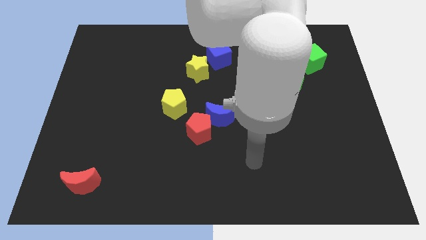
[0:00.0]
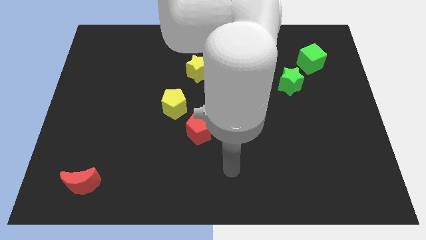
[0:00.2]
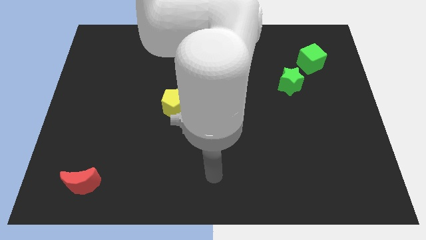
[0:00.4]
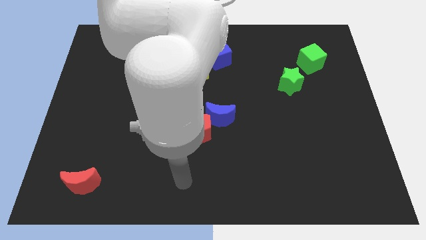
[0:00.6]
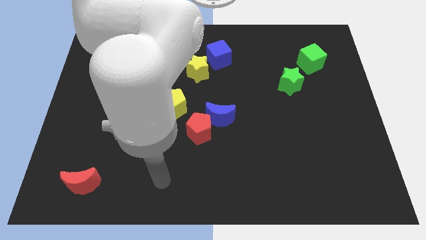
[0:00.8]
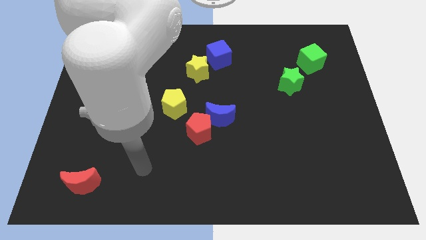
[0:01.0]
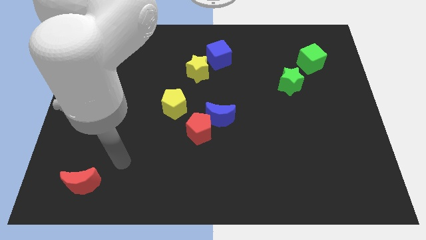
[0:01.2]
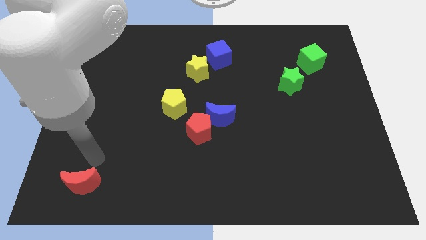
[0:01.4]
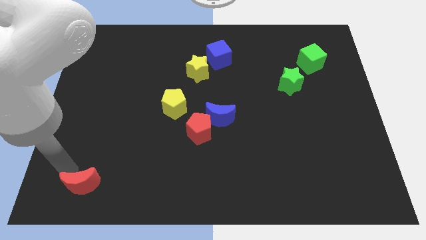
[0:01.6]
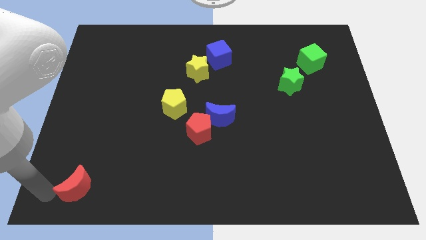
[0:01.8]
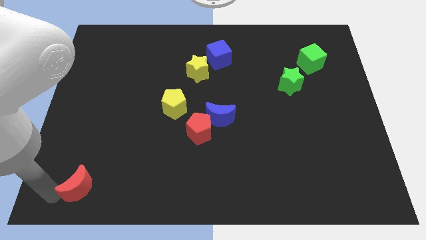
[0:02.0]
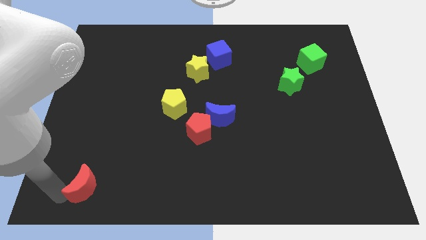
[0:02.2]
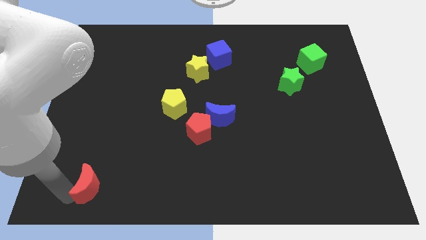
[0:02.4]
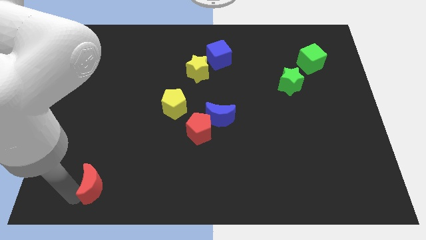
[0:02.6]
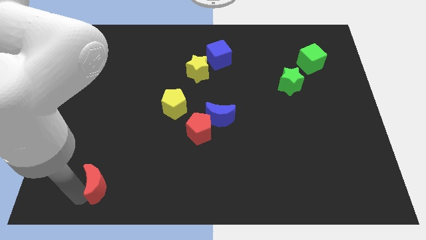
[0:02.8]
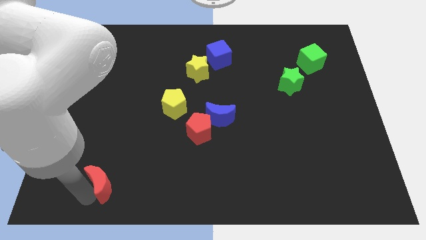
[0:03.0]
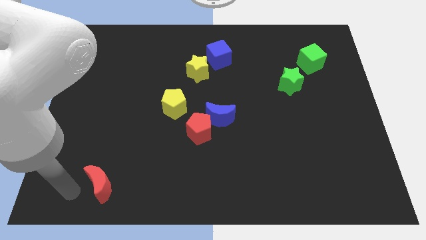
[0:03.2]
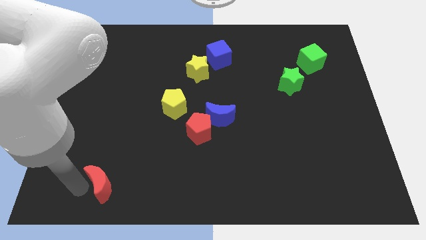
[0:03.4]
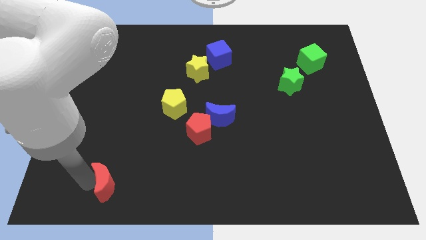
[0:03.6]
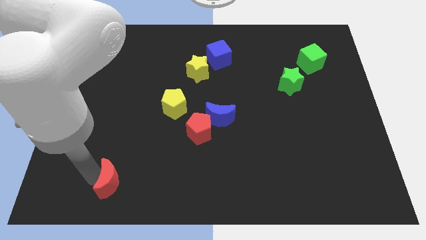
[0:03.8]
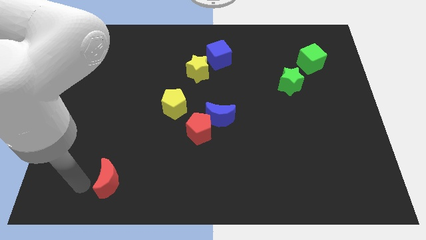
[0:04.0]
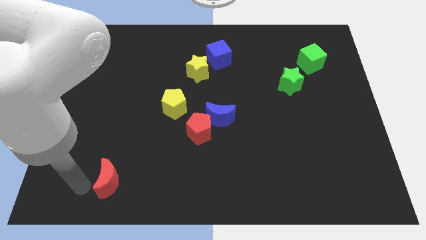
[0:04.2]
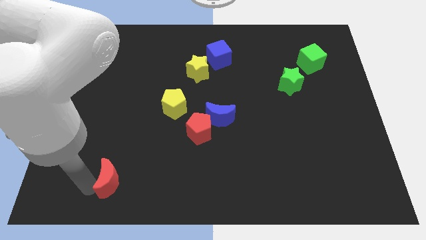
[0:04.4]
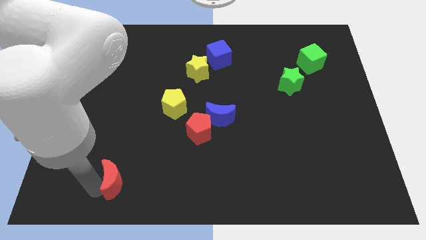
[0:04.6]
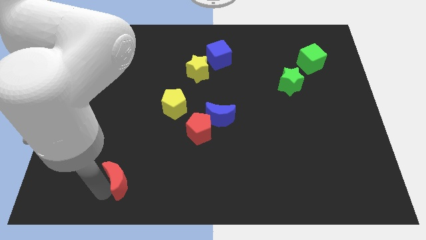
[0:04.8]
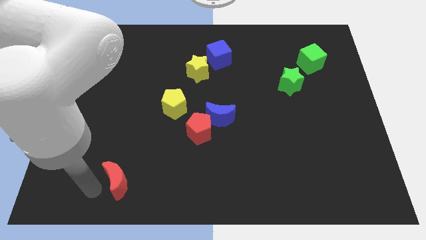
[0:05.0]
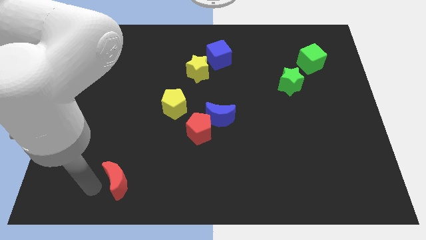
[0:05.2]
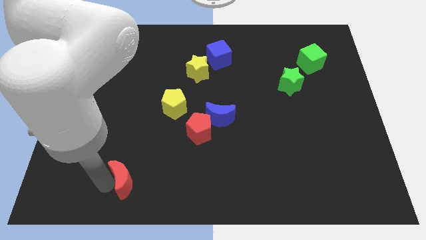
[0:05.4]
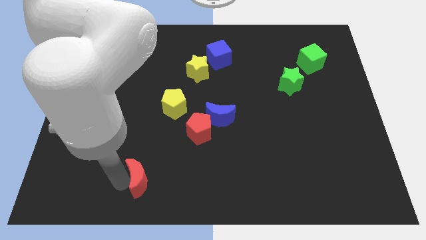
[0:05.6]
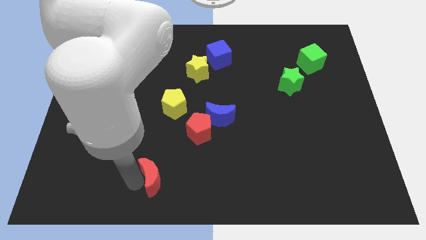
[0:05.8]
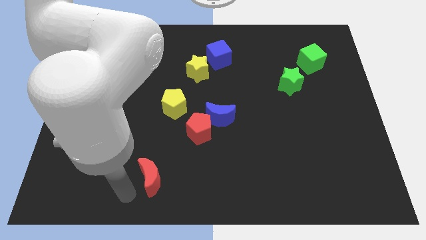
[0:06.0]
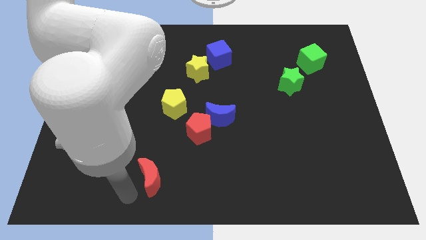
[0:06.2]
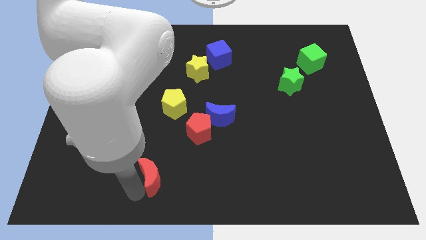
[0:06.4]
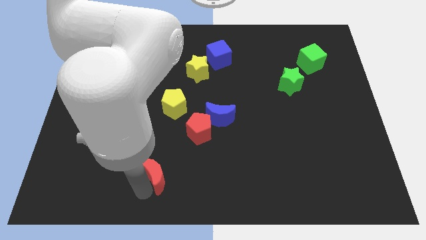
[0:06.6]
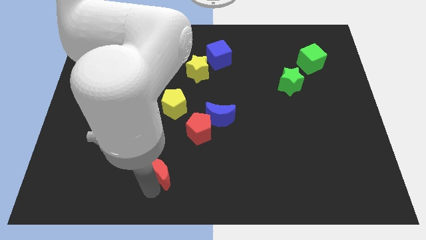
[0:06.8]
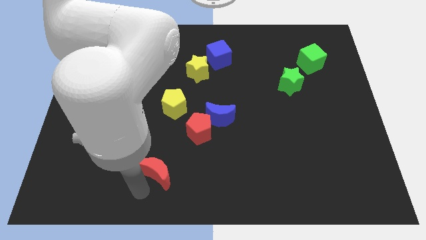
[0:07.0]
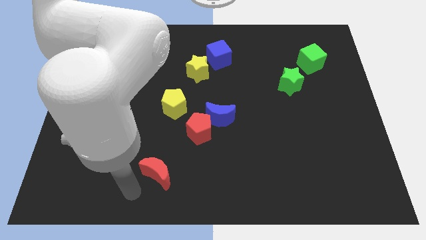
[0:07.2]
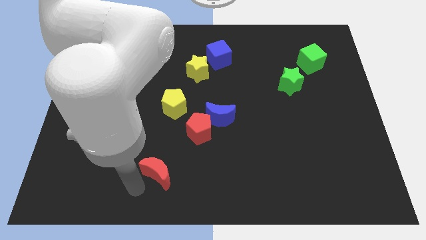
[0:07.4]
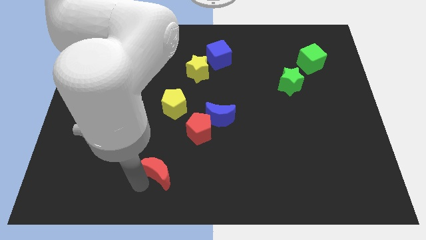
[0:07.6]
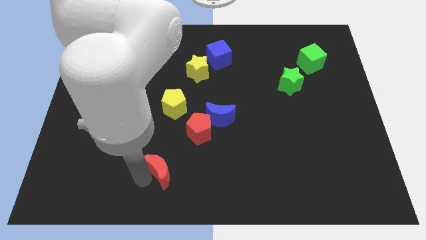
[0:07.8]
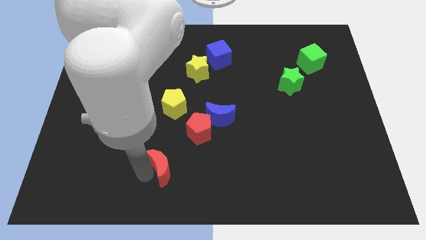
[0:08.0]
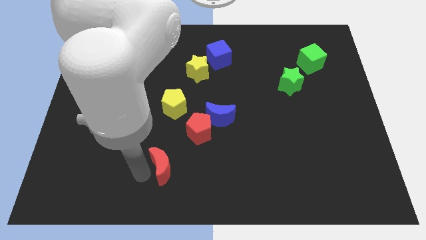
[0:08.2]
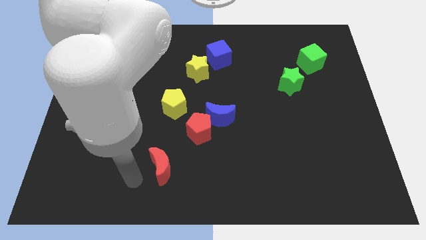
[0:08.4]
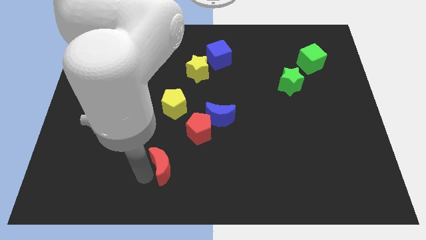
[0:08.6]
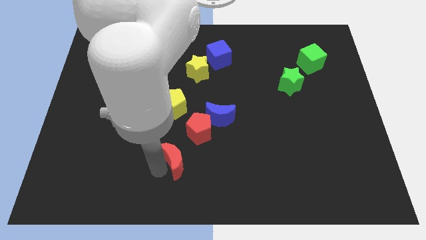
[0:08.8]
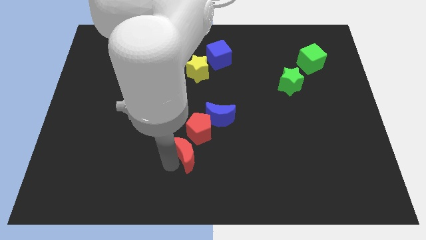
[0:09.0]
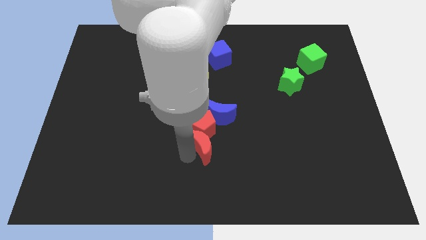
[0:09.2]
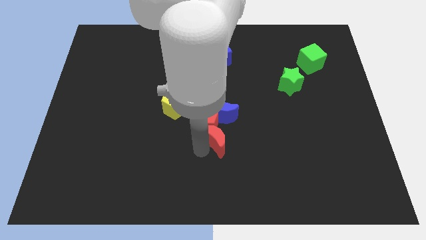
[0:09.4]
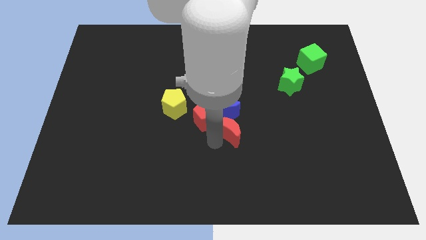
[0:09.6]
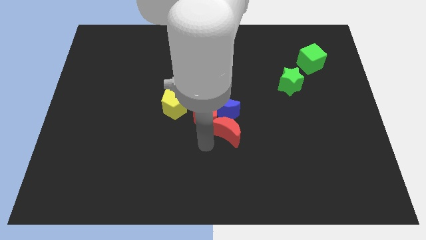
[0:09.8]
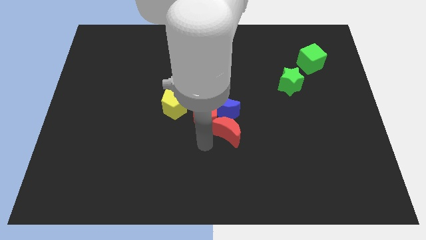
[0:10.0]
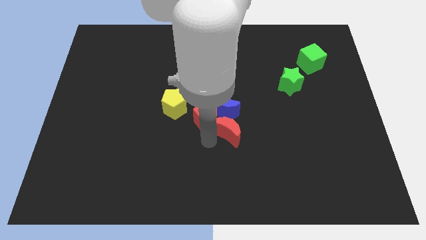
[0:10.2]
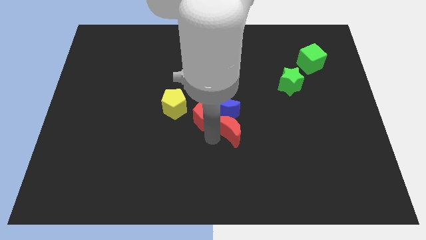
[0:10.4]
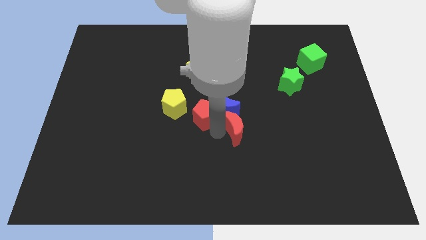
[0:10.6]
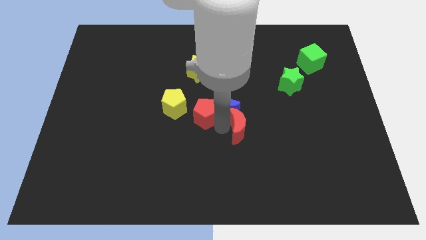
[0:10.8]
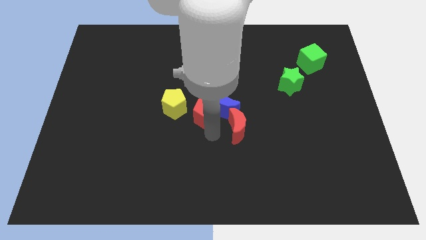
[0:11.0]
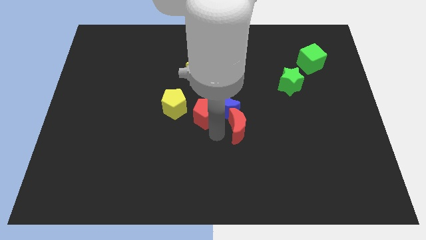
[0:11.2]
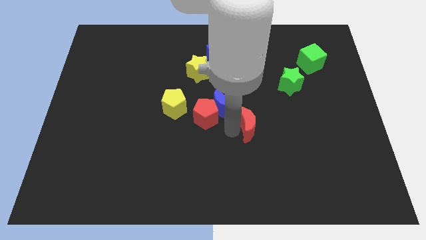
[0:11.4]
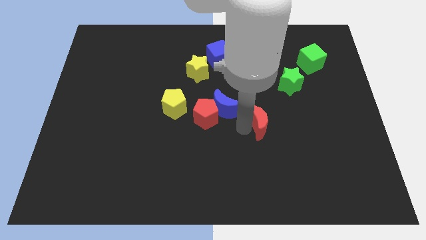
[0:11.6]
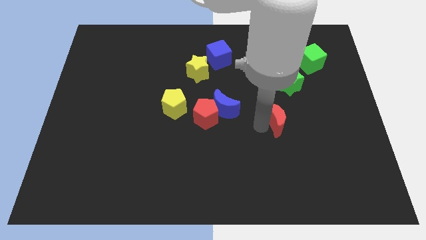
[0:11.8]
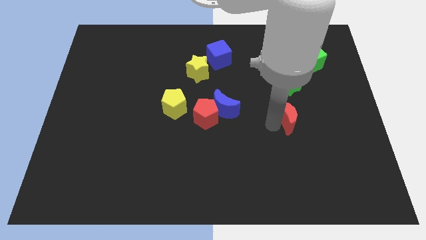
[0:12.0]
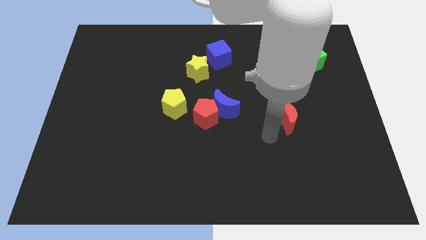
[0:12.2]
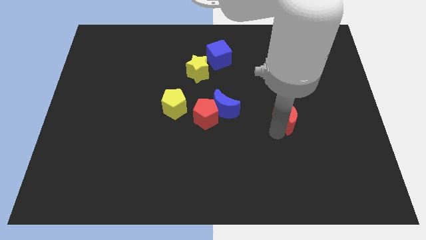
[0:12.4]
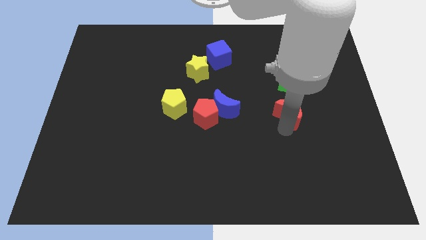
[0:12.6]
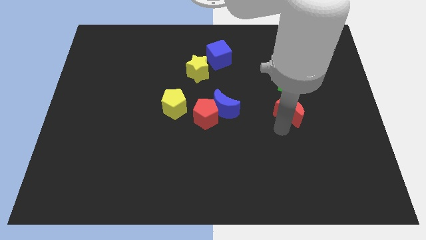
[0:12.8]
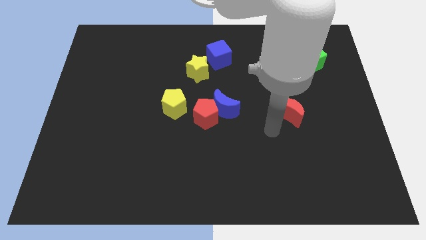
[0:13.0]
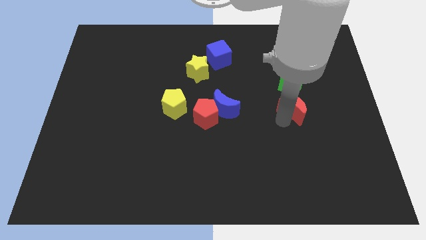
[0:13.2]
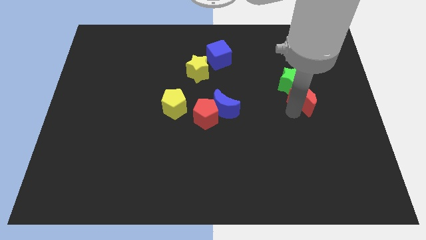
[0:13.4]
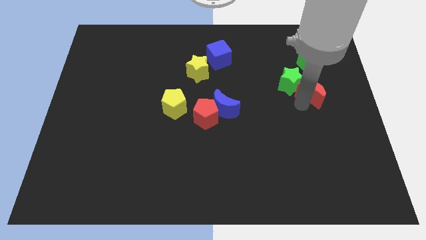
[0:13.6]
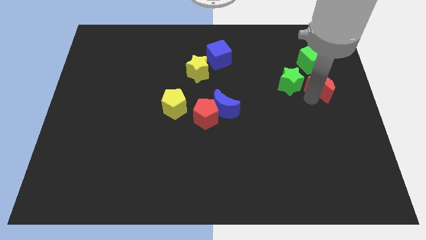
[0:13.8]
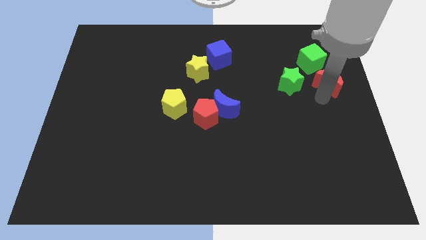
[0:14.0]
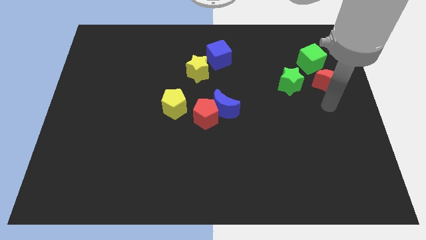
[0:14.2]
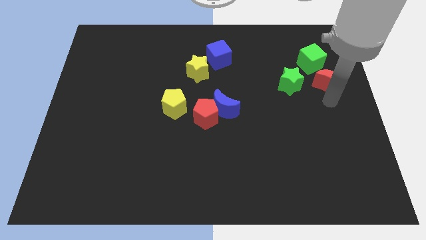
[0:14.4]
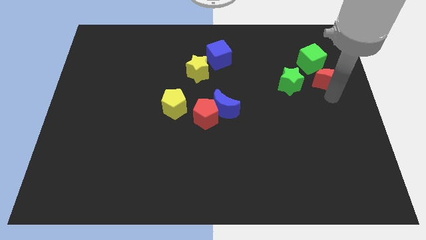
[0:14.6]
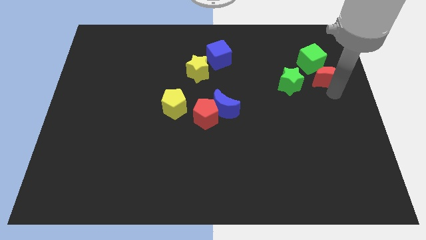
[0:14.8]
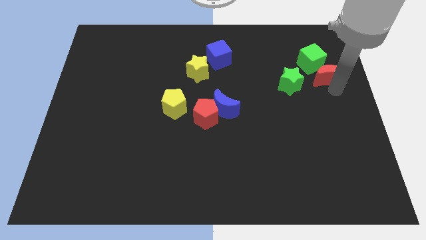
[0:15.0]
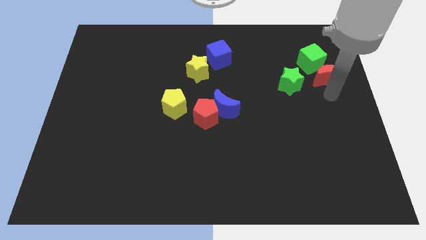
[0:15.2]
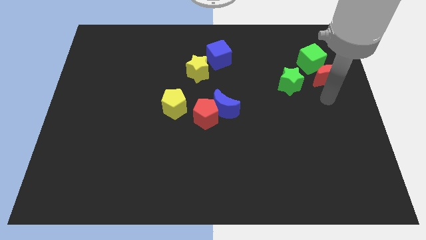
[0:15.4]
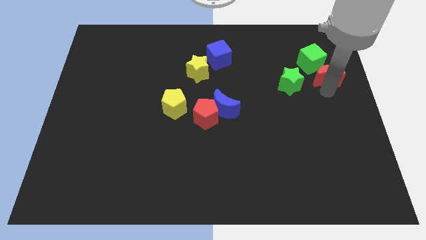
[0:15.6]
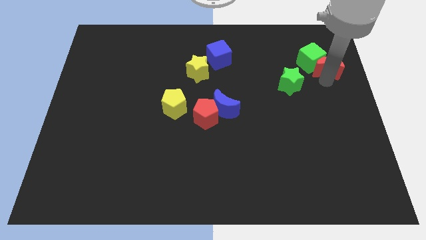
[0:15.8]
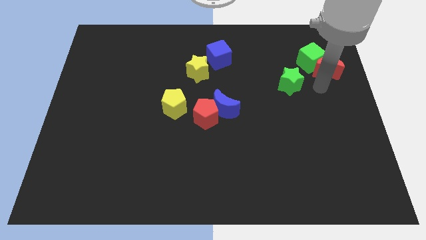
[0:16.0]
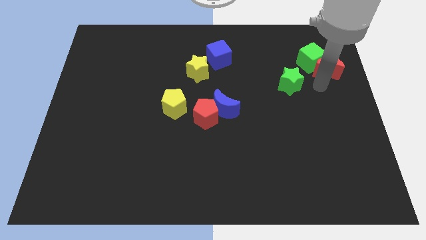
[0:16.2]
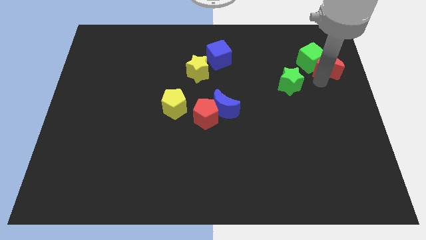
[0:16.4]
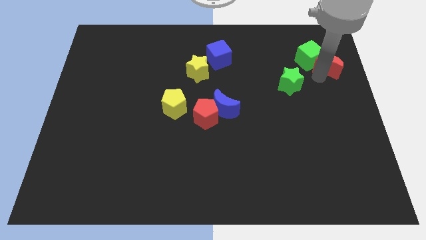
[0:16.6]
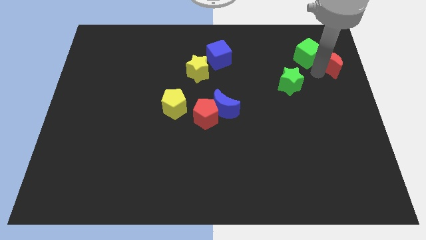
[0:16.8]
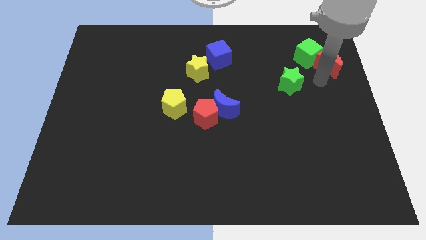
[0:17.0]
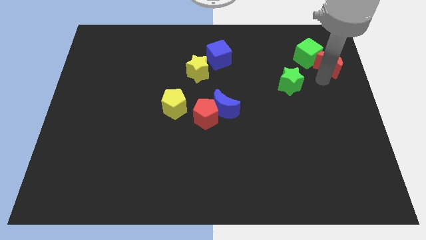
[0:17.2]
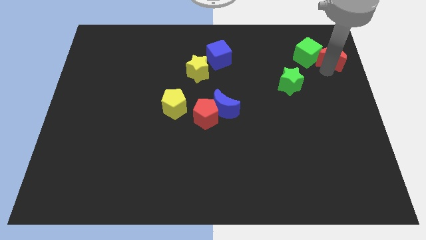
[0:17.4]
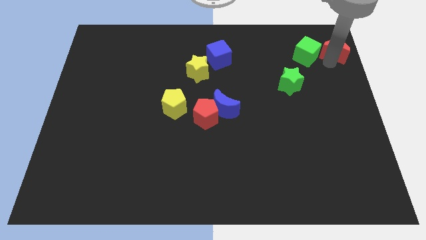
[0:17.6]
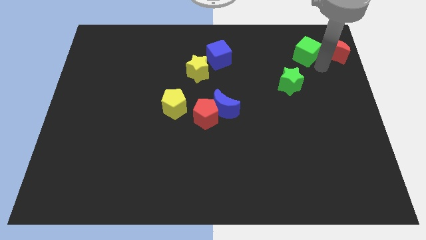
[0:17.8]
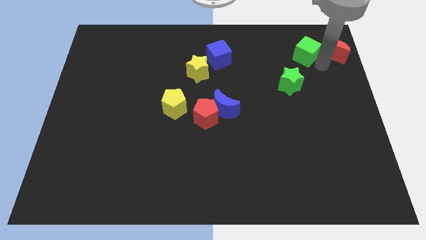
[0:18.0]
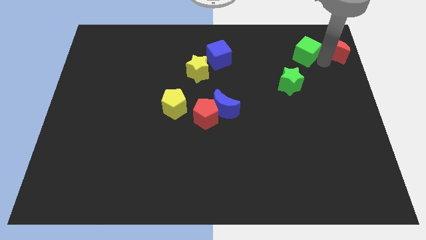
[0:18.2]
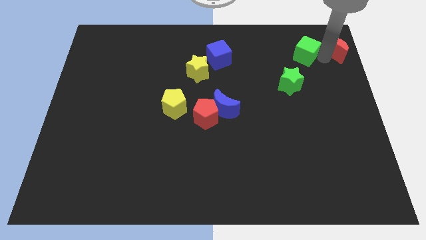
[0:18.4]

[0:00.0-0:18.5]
put the red moon to the top right of the board
